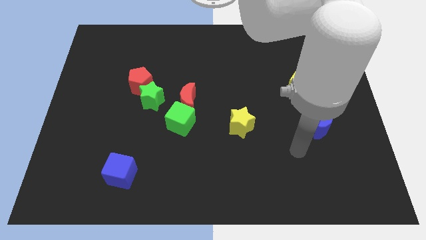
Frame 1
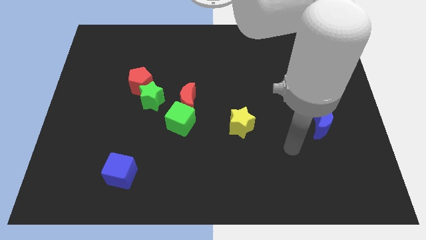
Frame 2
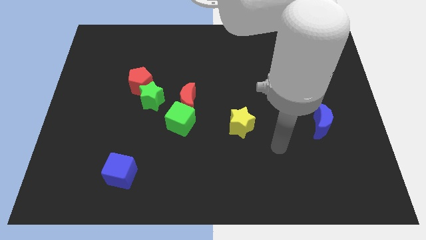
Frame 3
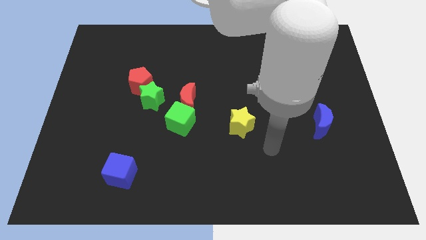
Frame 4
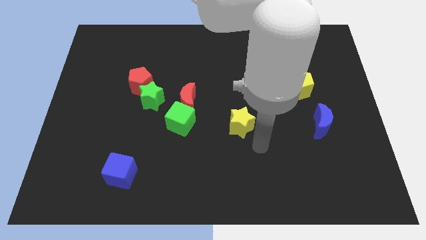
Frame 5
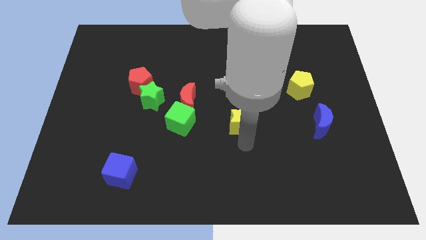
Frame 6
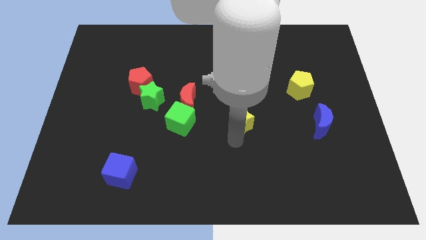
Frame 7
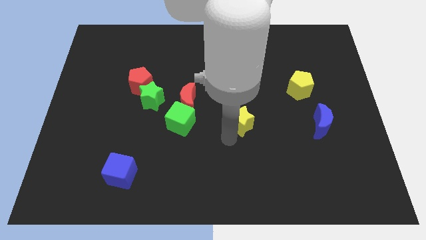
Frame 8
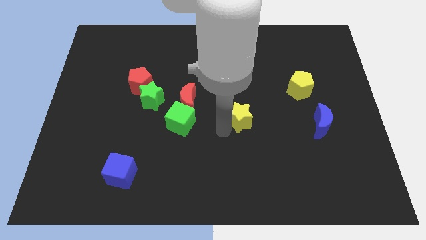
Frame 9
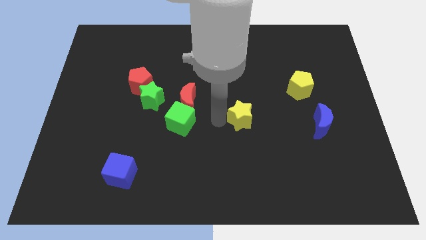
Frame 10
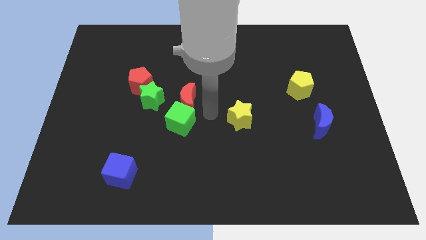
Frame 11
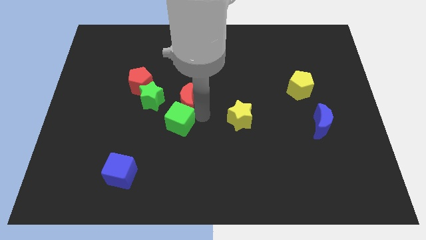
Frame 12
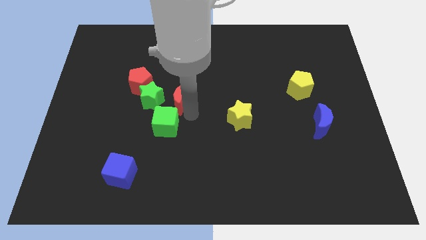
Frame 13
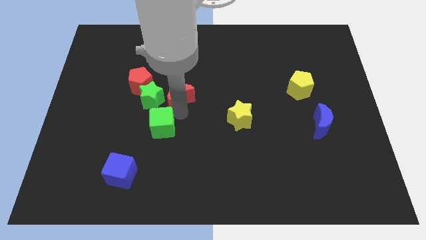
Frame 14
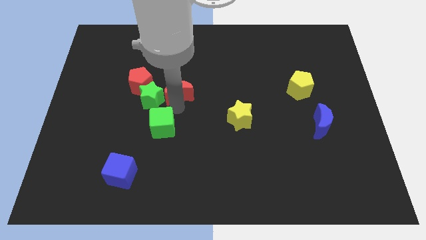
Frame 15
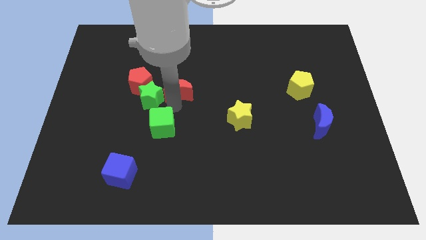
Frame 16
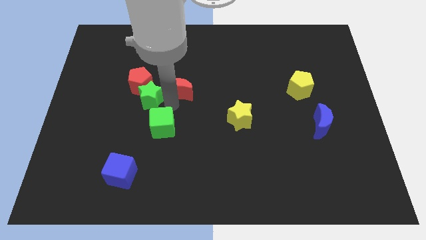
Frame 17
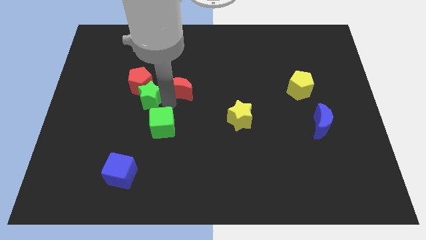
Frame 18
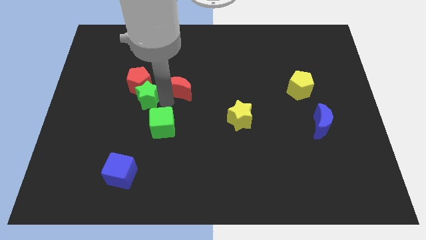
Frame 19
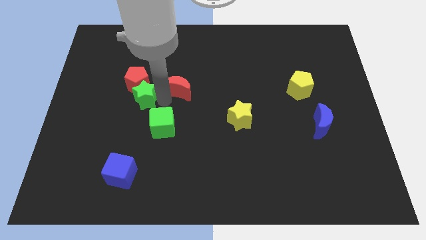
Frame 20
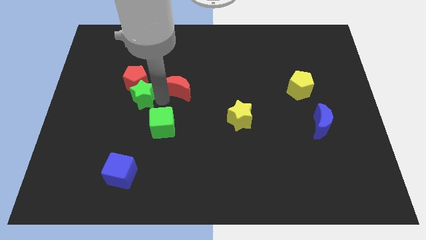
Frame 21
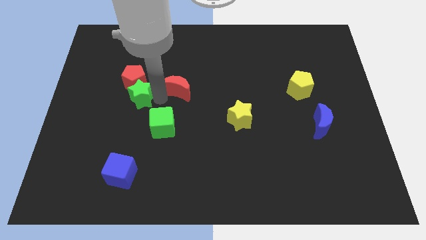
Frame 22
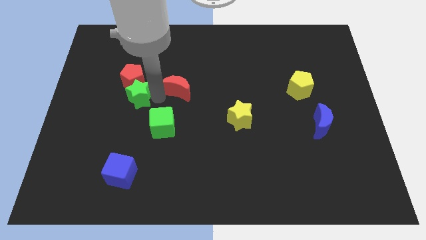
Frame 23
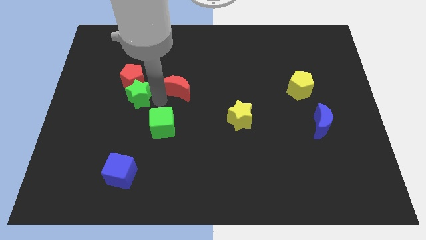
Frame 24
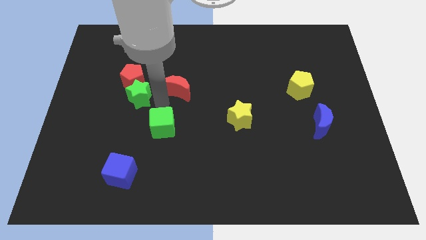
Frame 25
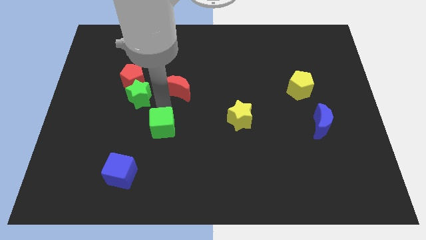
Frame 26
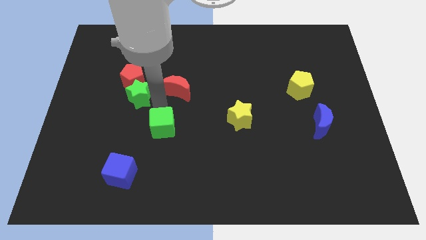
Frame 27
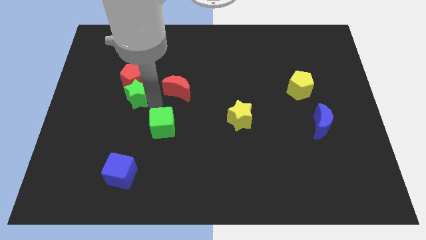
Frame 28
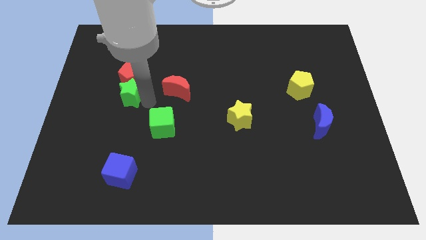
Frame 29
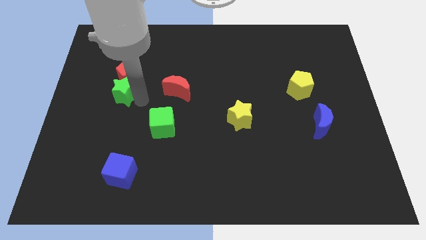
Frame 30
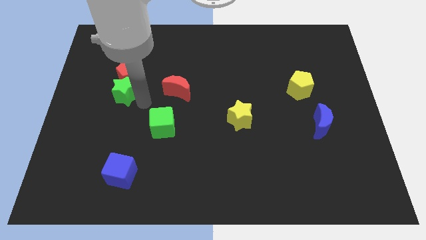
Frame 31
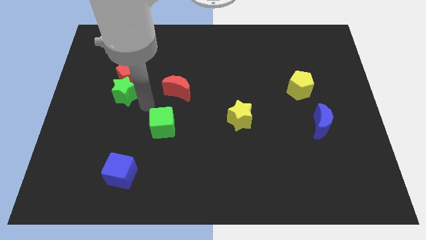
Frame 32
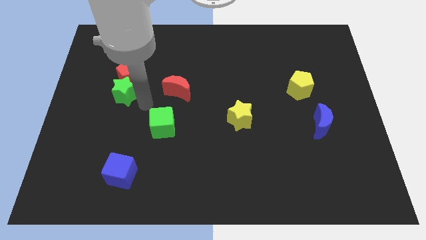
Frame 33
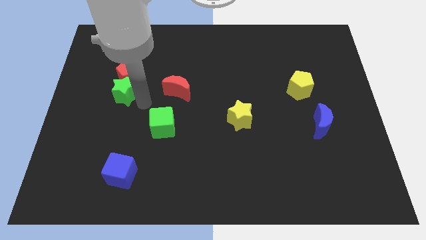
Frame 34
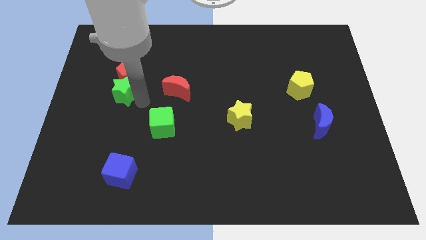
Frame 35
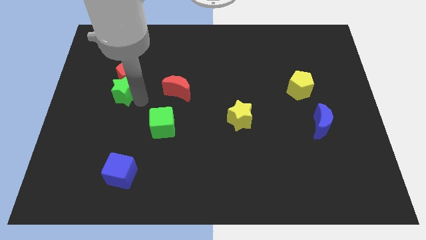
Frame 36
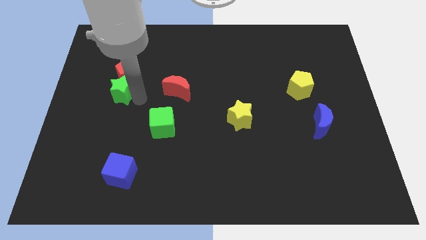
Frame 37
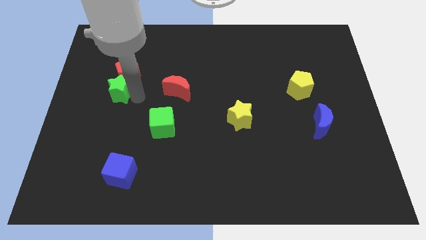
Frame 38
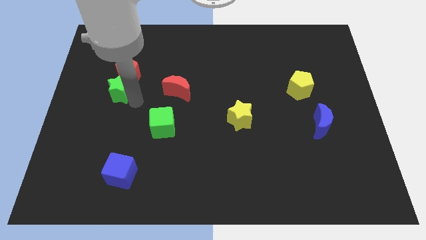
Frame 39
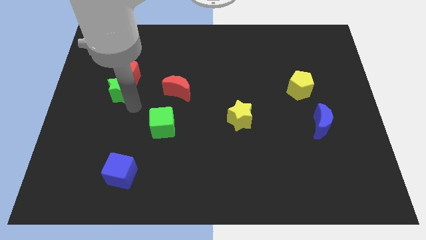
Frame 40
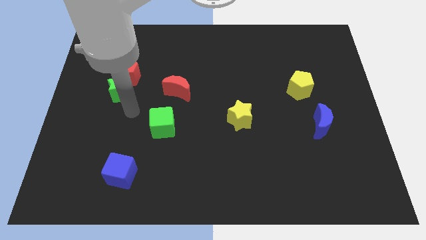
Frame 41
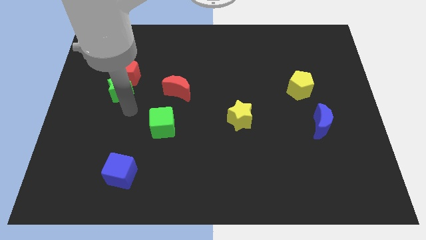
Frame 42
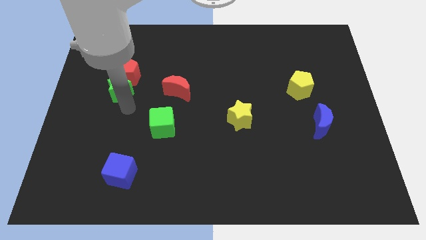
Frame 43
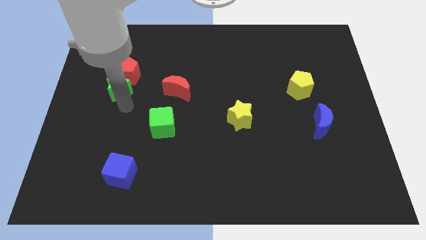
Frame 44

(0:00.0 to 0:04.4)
slide the green star a bit upwards and left

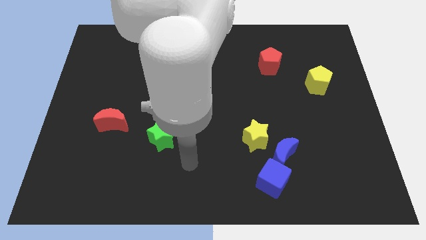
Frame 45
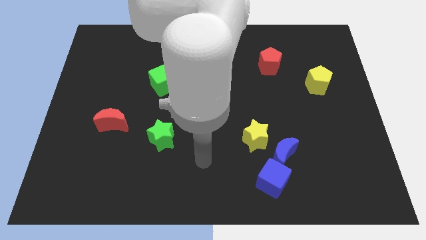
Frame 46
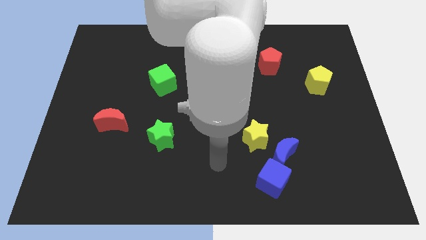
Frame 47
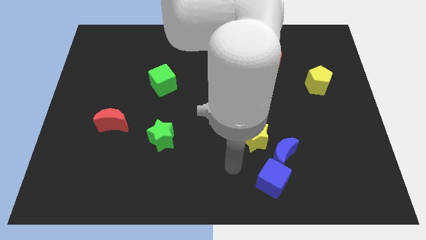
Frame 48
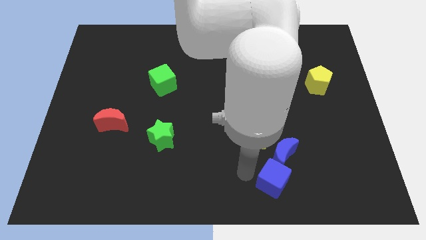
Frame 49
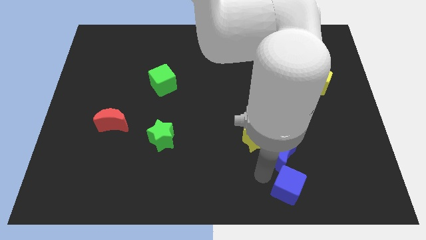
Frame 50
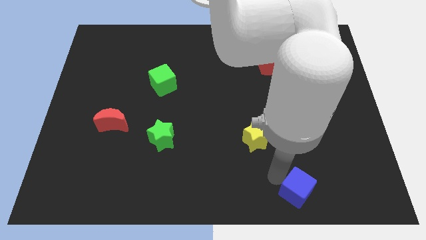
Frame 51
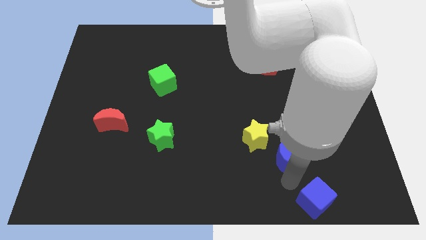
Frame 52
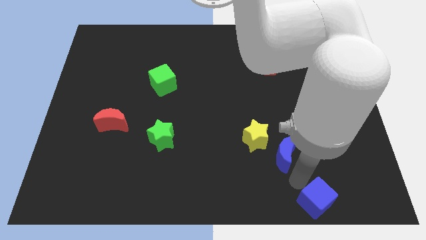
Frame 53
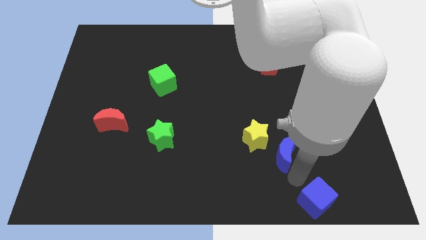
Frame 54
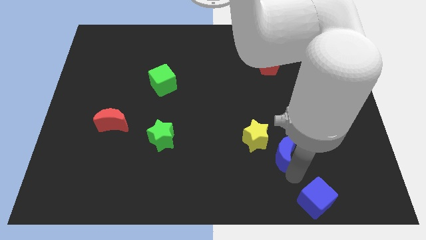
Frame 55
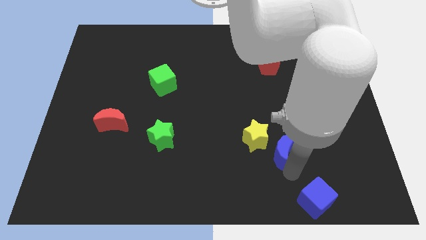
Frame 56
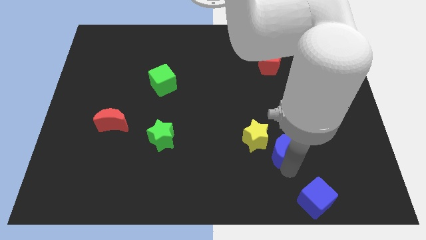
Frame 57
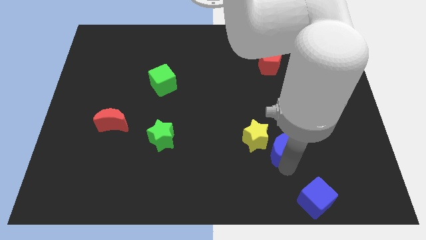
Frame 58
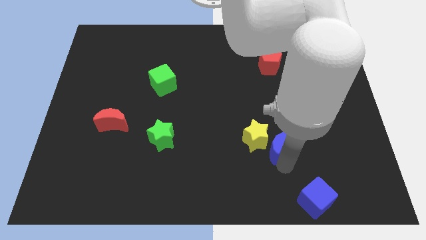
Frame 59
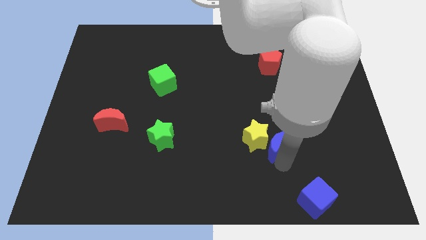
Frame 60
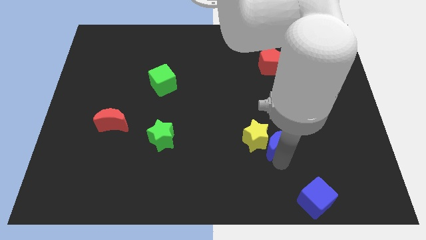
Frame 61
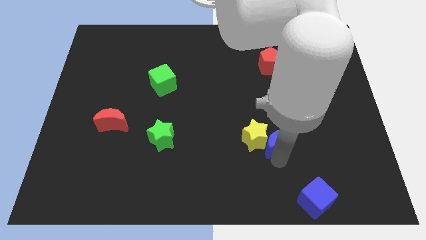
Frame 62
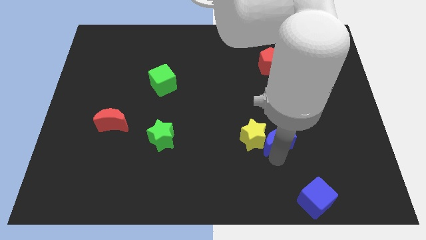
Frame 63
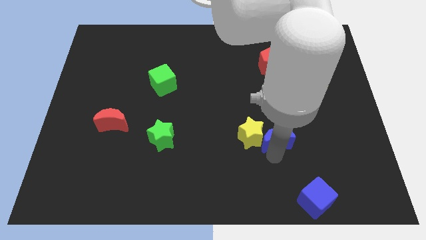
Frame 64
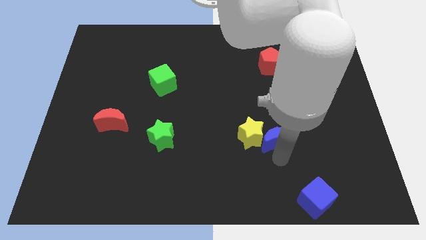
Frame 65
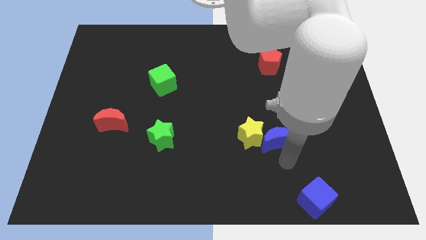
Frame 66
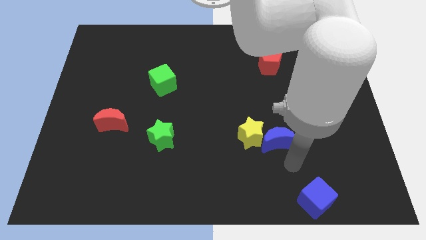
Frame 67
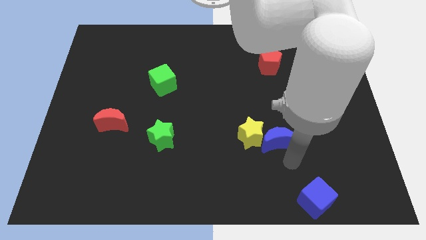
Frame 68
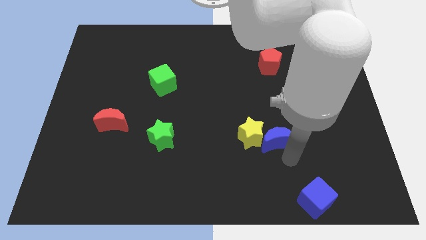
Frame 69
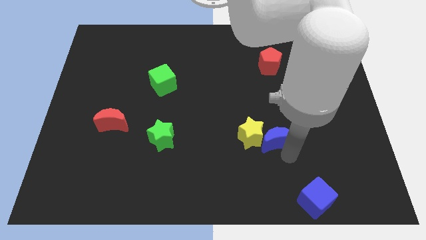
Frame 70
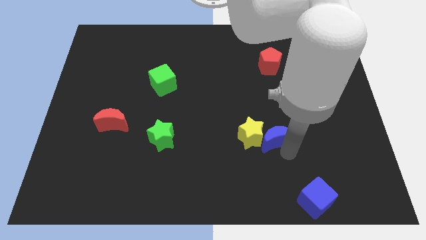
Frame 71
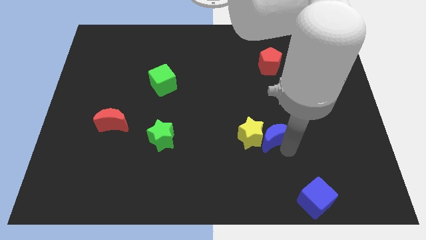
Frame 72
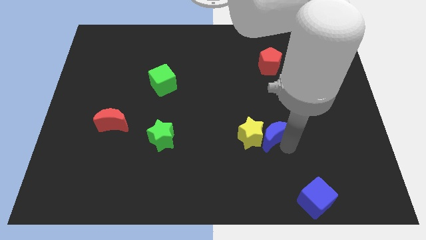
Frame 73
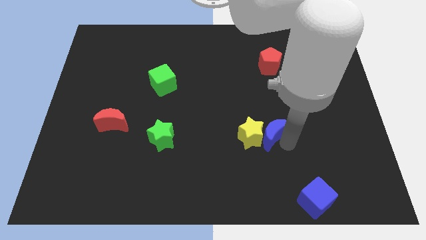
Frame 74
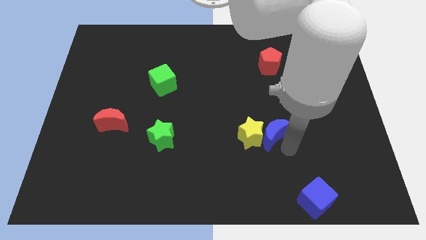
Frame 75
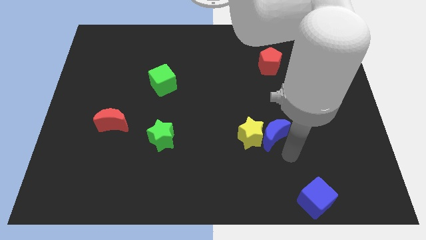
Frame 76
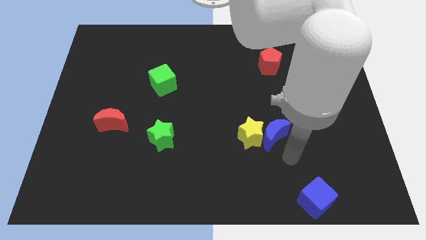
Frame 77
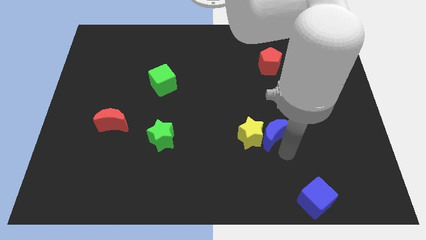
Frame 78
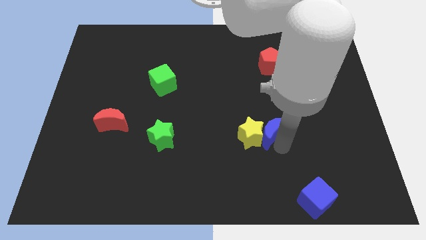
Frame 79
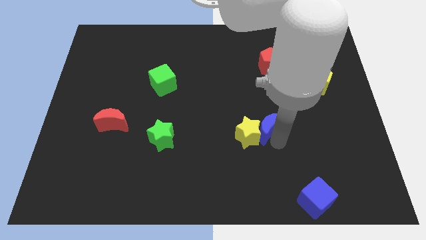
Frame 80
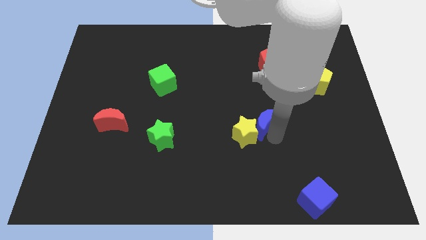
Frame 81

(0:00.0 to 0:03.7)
slightly push the blue moon upwards and then left
